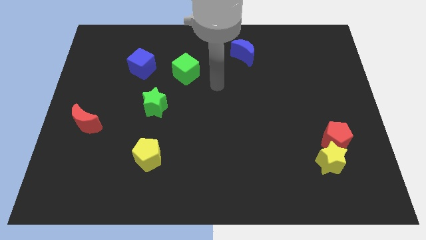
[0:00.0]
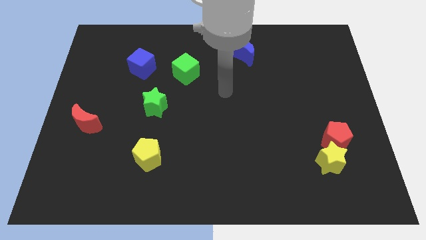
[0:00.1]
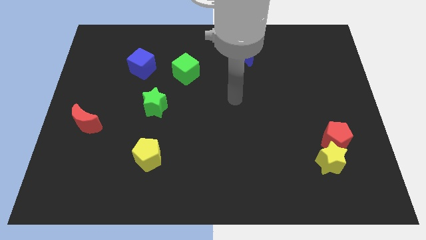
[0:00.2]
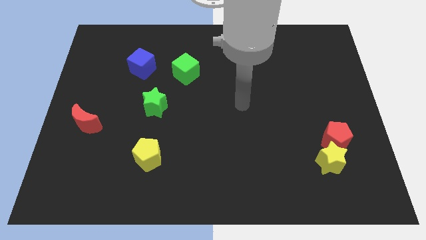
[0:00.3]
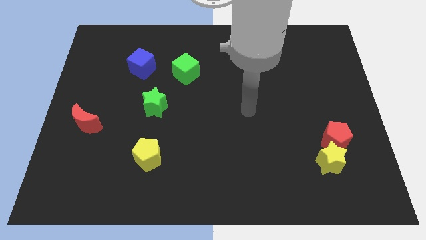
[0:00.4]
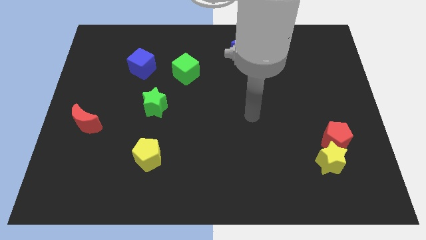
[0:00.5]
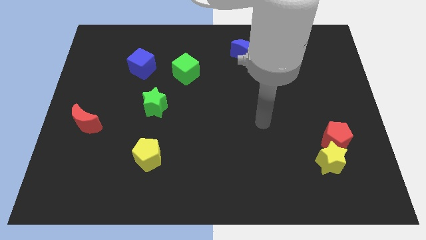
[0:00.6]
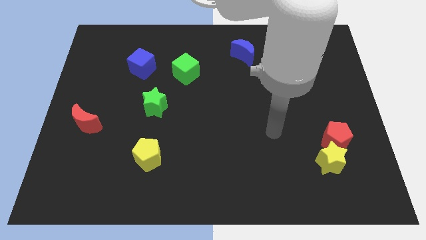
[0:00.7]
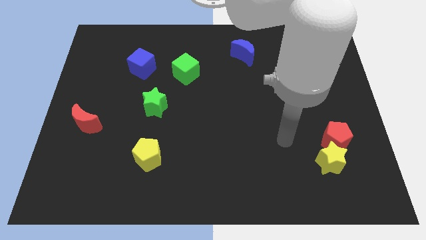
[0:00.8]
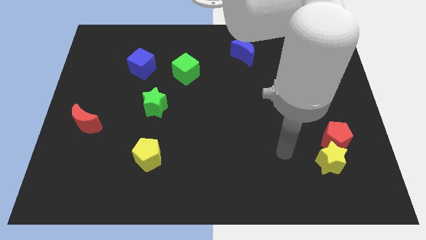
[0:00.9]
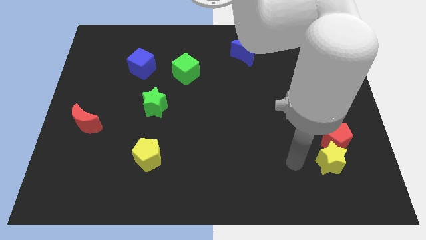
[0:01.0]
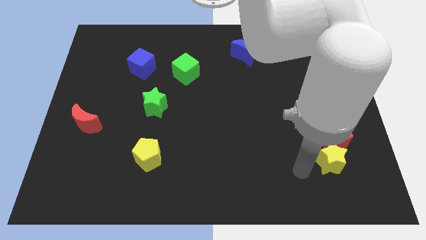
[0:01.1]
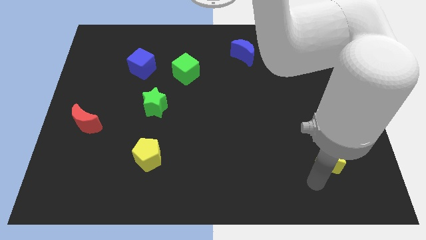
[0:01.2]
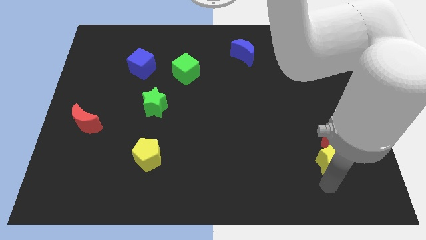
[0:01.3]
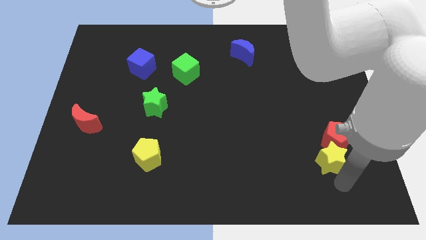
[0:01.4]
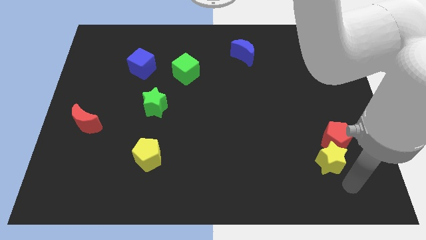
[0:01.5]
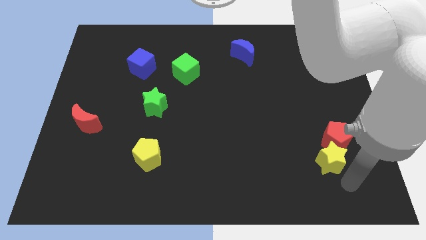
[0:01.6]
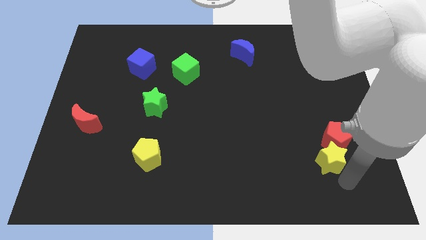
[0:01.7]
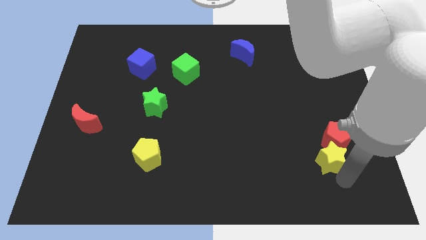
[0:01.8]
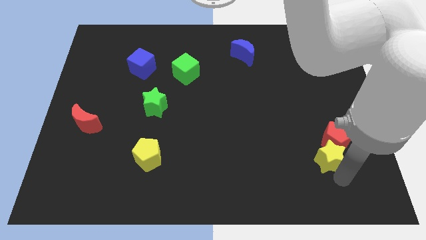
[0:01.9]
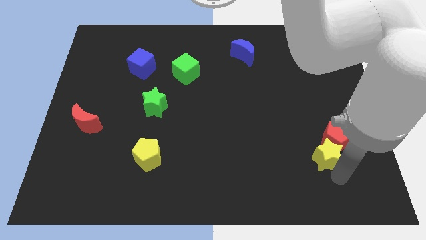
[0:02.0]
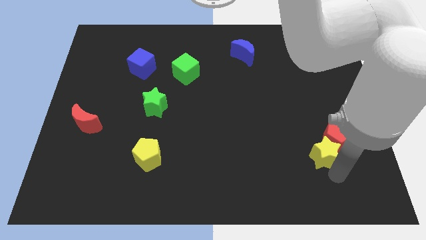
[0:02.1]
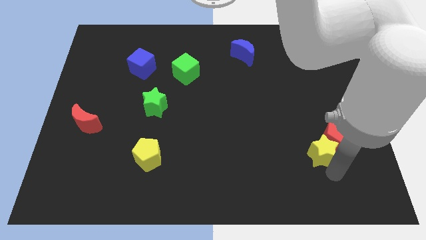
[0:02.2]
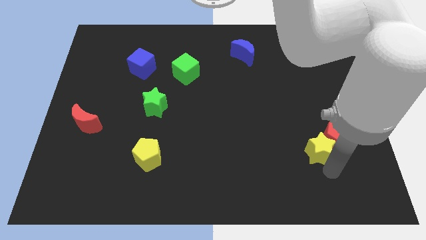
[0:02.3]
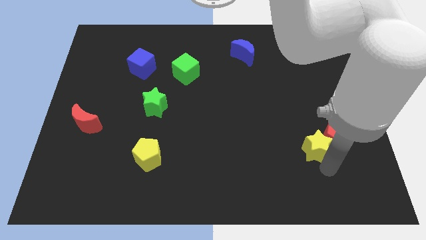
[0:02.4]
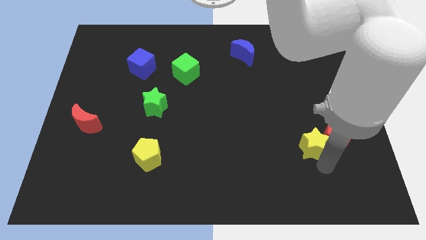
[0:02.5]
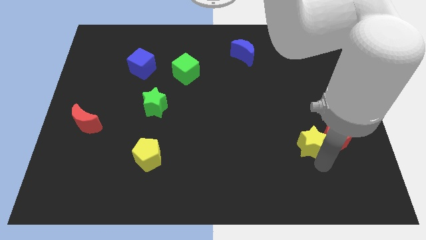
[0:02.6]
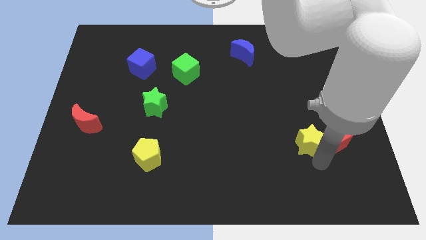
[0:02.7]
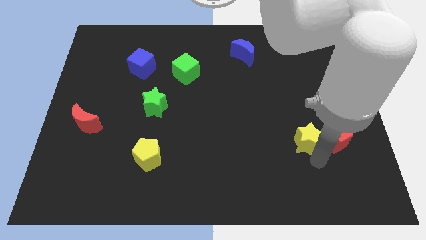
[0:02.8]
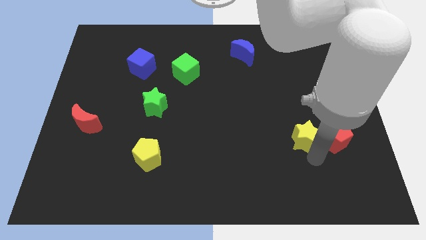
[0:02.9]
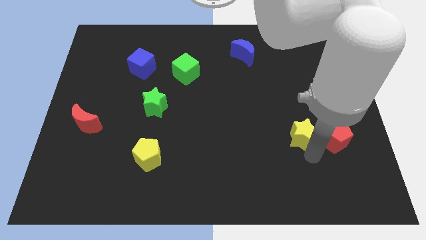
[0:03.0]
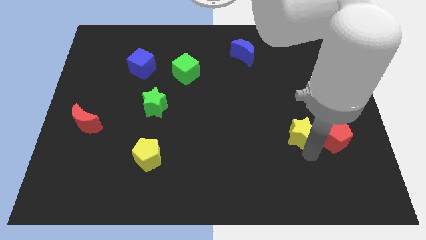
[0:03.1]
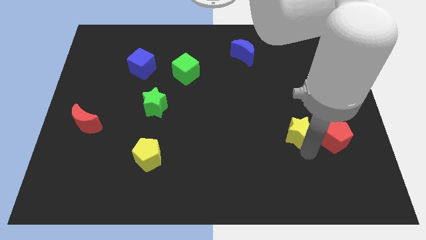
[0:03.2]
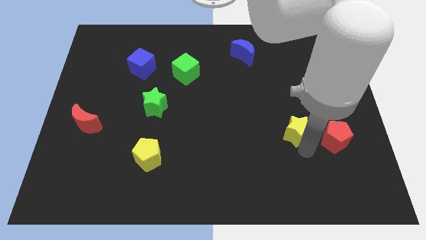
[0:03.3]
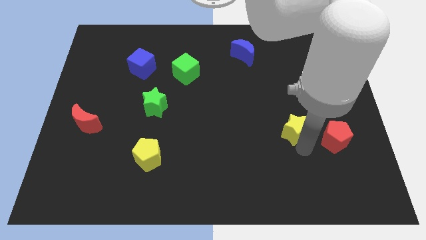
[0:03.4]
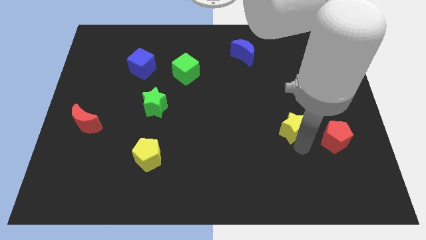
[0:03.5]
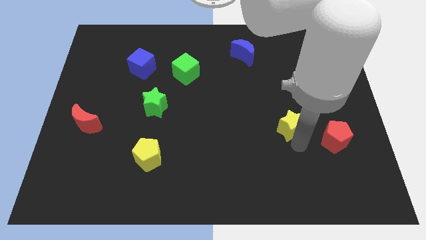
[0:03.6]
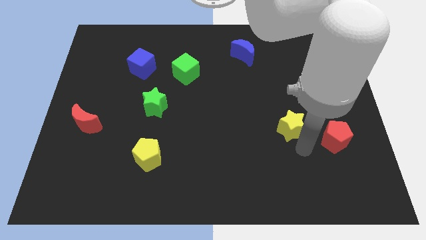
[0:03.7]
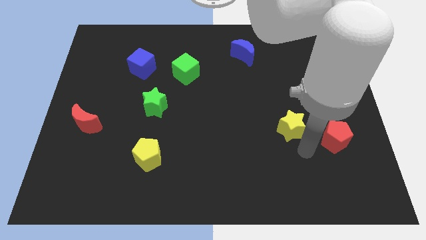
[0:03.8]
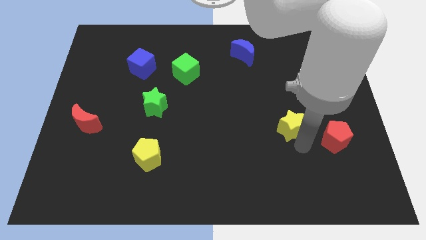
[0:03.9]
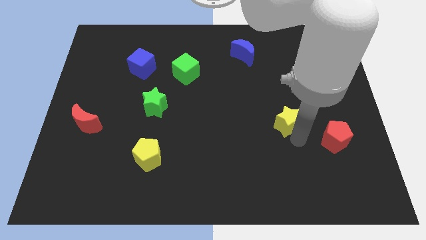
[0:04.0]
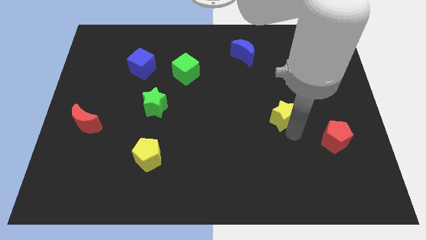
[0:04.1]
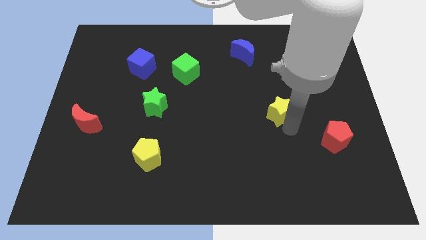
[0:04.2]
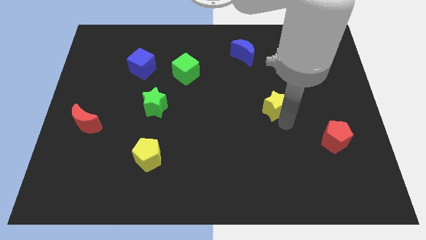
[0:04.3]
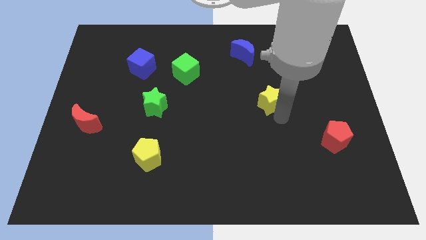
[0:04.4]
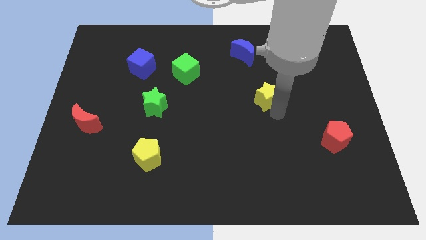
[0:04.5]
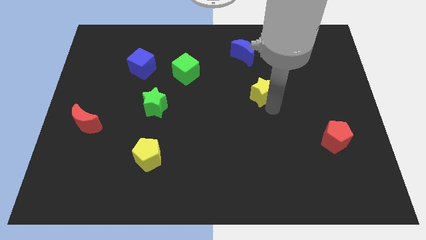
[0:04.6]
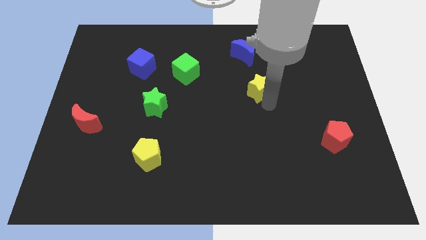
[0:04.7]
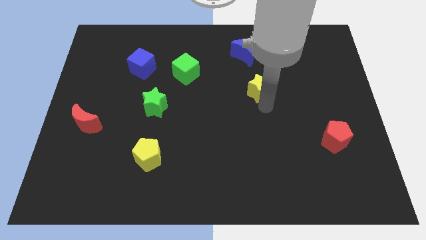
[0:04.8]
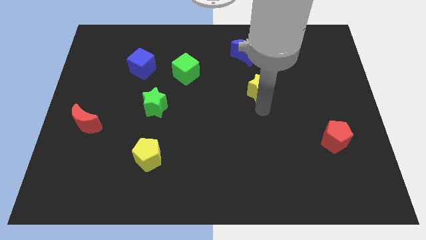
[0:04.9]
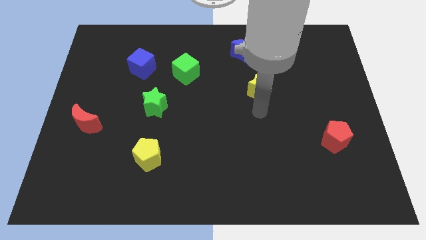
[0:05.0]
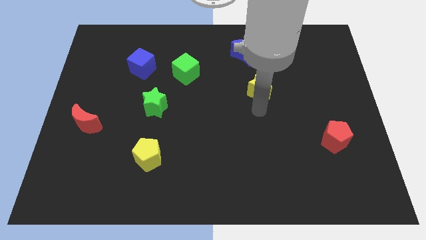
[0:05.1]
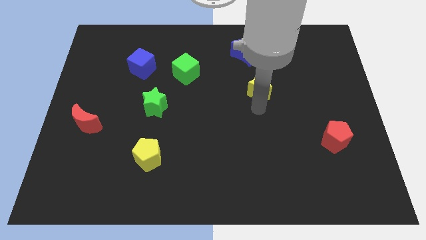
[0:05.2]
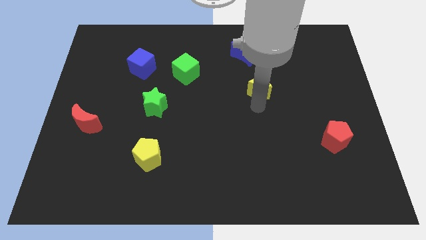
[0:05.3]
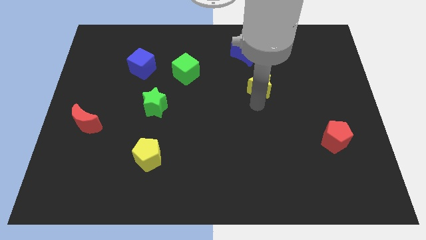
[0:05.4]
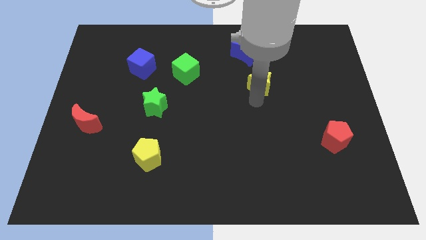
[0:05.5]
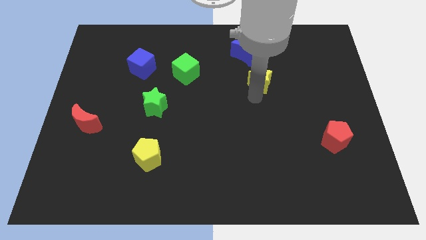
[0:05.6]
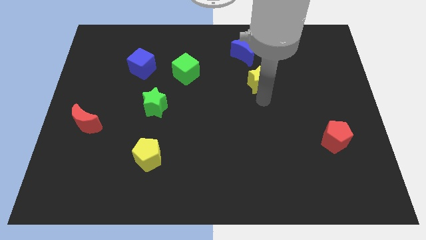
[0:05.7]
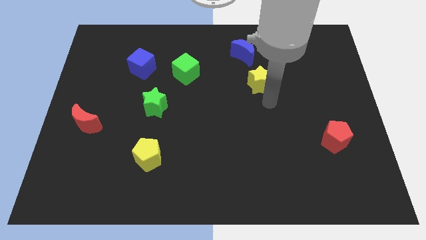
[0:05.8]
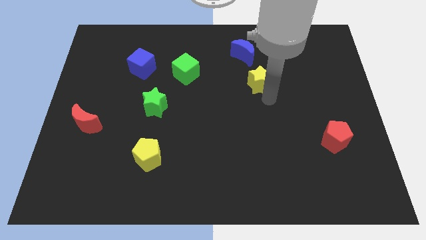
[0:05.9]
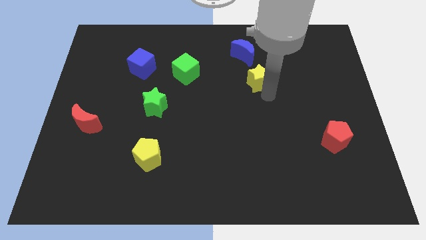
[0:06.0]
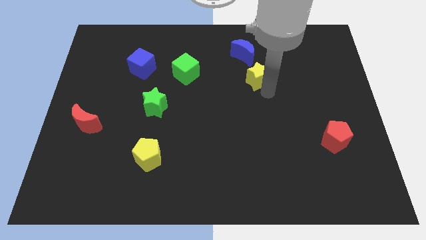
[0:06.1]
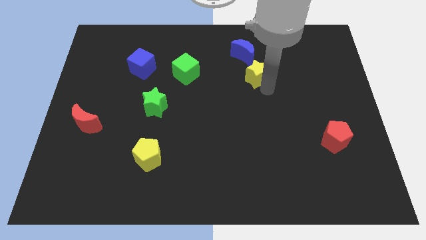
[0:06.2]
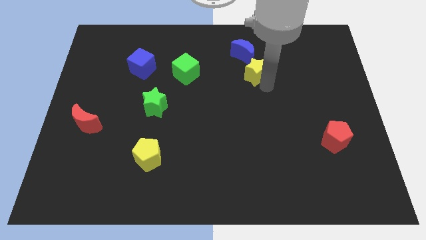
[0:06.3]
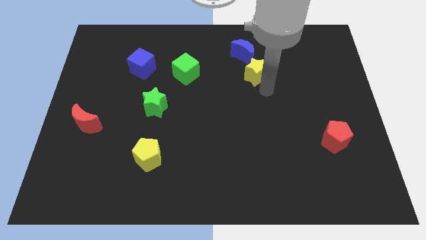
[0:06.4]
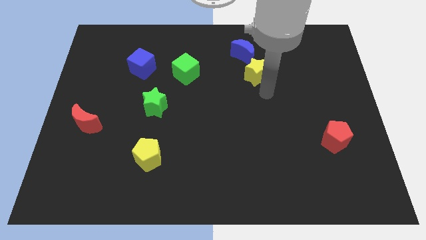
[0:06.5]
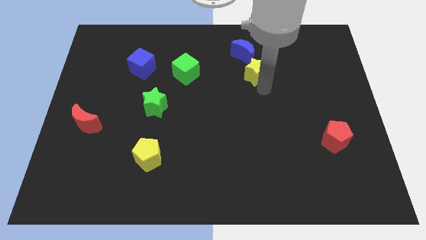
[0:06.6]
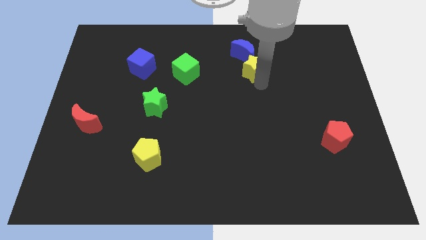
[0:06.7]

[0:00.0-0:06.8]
push the yellow star close to the blue moon

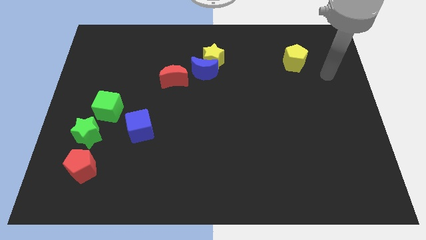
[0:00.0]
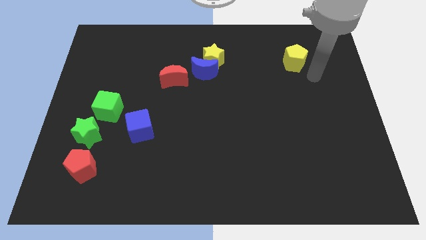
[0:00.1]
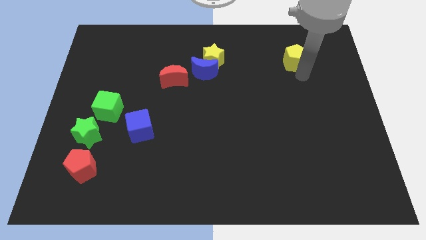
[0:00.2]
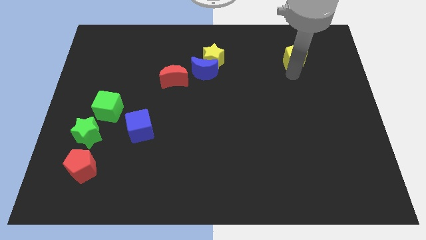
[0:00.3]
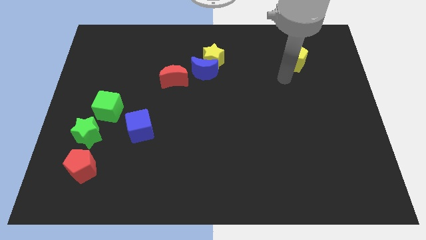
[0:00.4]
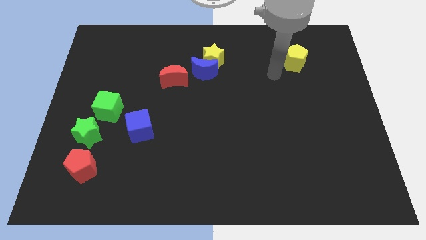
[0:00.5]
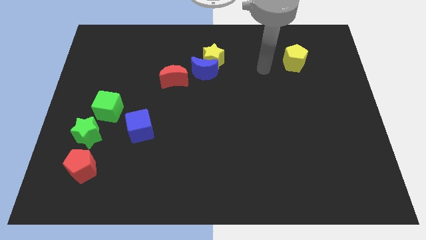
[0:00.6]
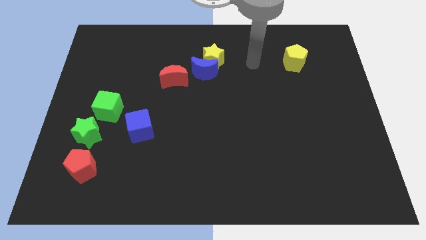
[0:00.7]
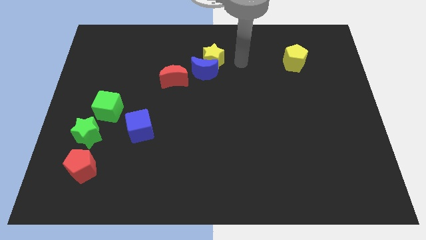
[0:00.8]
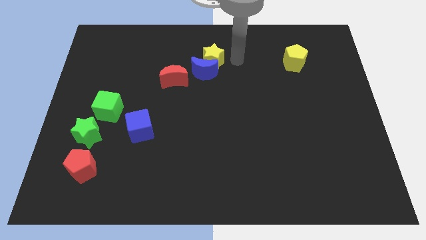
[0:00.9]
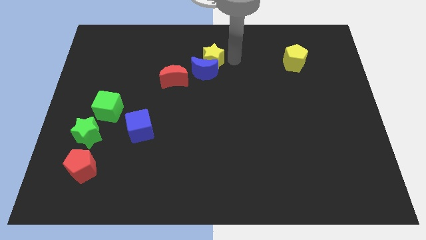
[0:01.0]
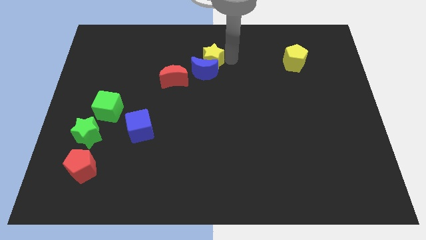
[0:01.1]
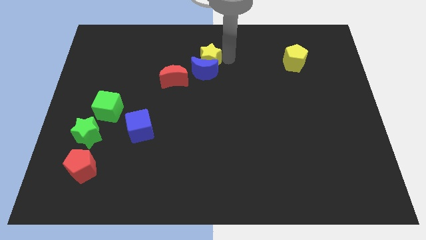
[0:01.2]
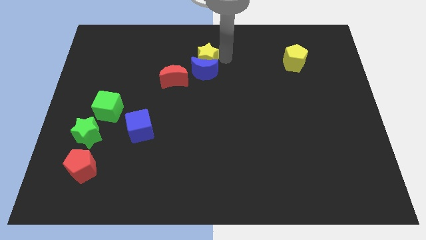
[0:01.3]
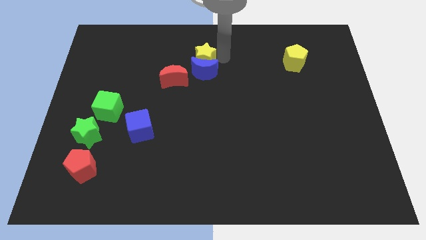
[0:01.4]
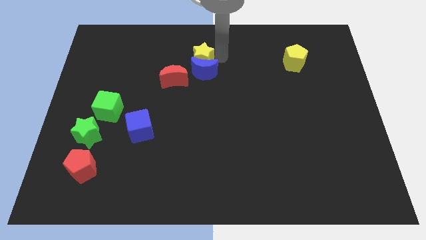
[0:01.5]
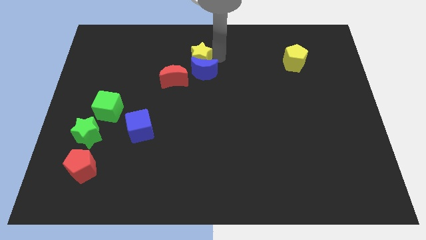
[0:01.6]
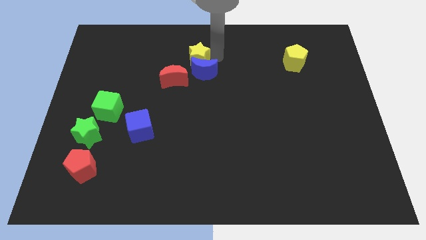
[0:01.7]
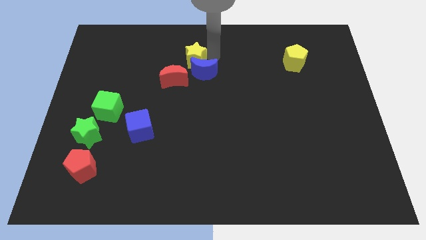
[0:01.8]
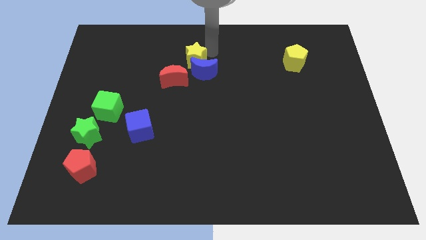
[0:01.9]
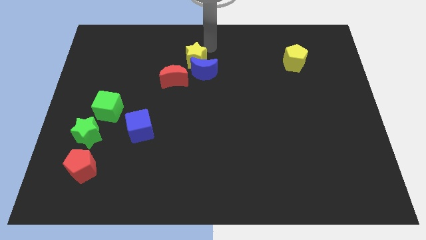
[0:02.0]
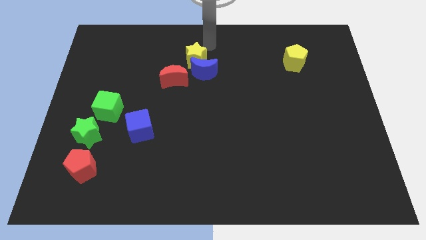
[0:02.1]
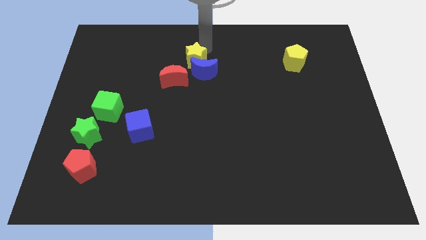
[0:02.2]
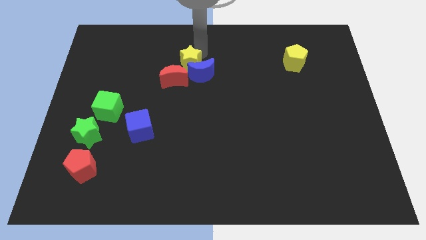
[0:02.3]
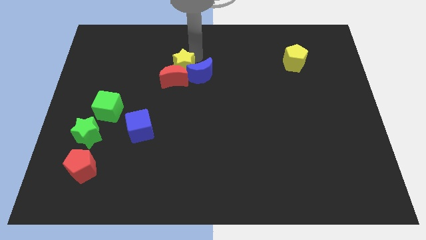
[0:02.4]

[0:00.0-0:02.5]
push the yellow star next to the red moon
